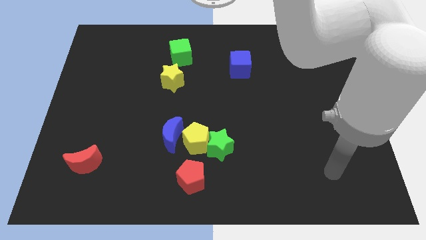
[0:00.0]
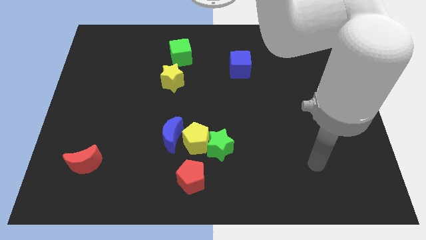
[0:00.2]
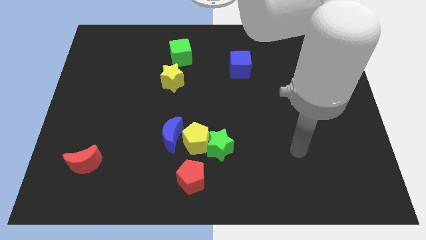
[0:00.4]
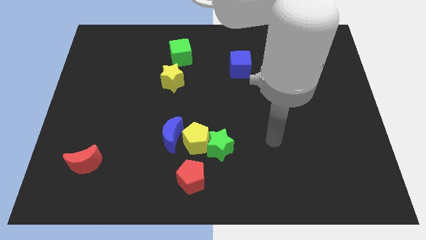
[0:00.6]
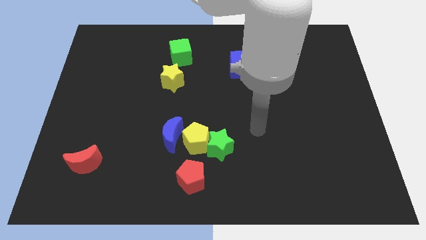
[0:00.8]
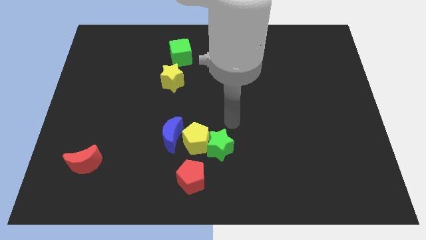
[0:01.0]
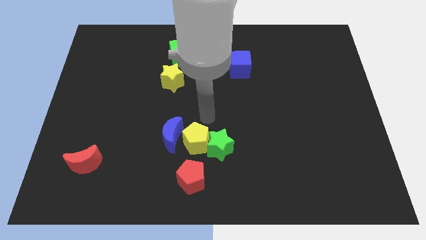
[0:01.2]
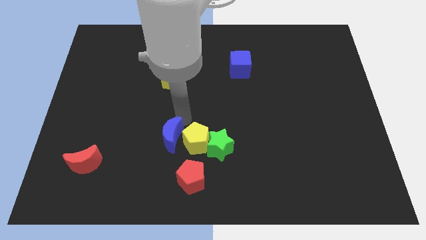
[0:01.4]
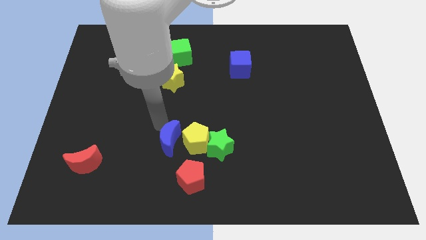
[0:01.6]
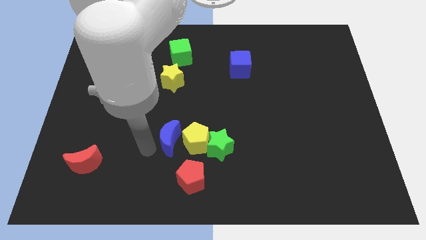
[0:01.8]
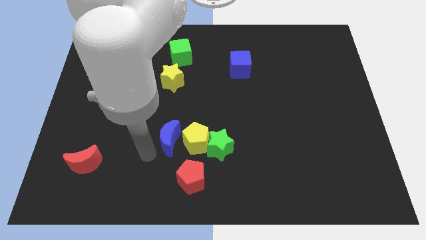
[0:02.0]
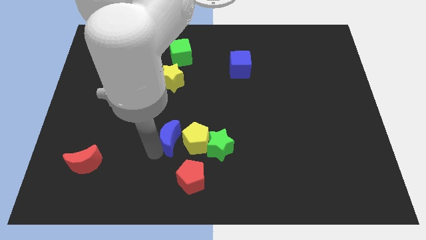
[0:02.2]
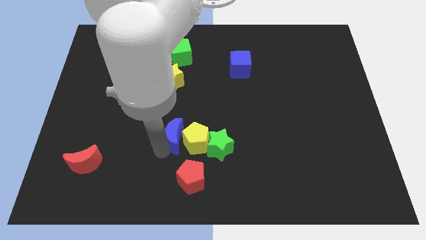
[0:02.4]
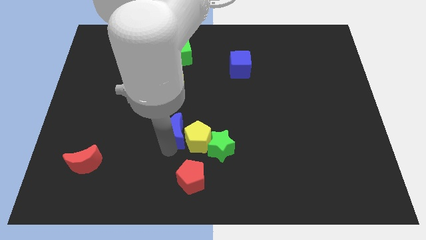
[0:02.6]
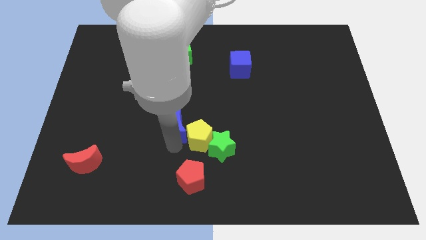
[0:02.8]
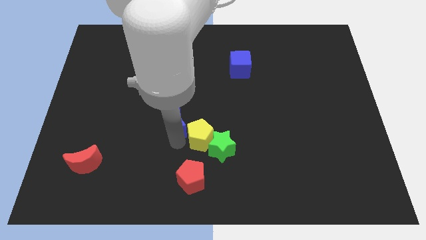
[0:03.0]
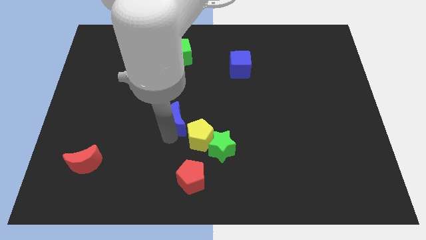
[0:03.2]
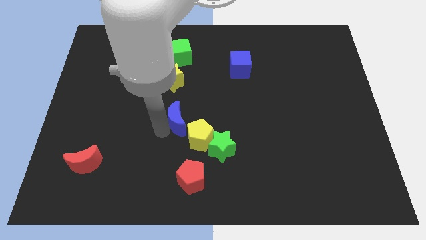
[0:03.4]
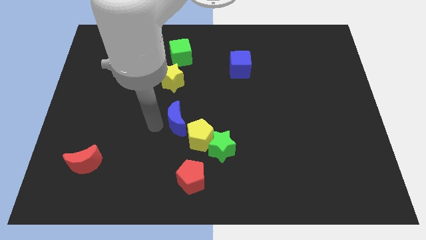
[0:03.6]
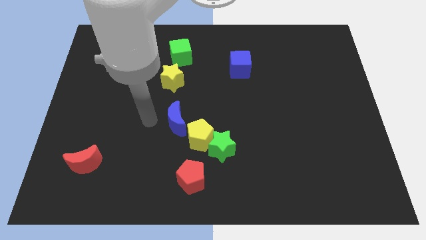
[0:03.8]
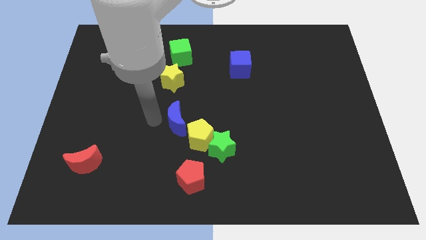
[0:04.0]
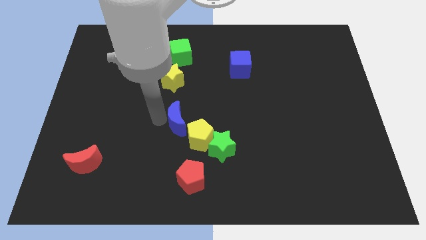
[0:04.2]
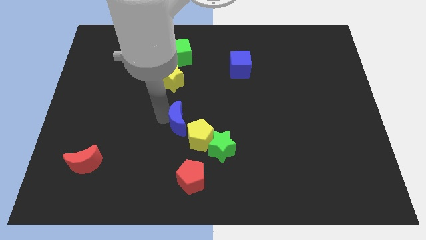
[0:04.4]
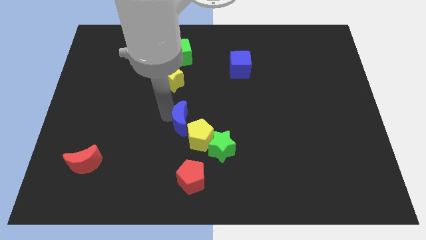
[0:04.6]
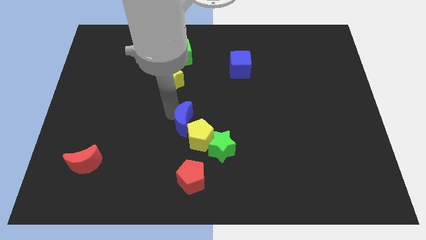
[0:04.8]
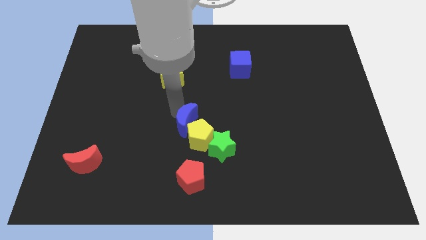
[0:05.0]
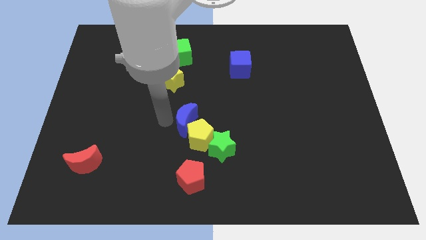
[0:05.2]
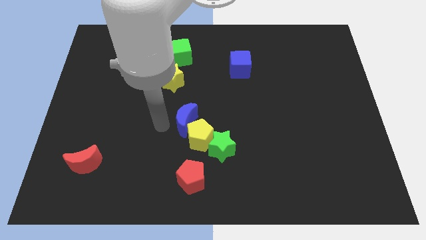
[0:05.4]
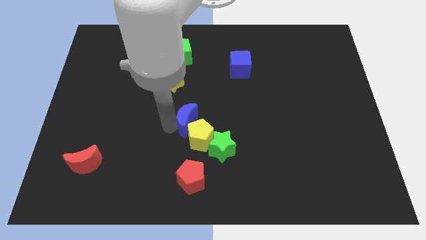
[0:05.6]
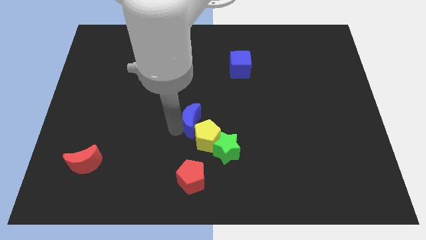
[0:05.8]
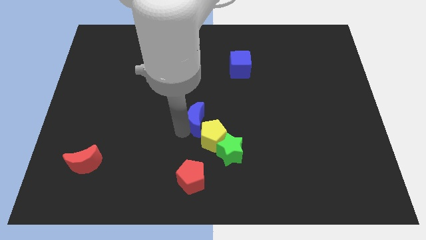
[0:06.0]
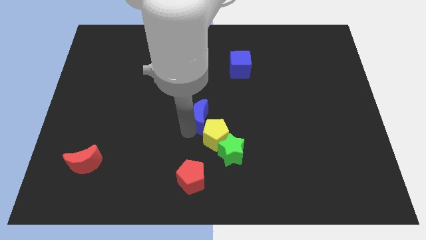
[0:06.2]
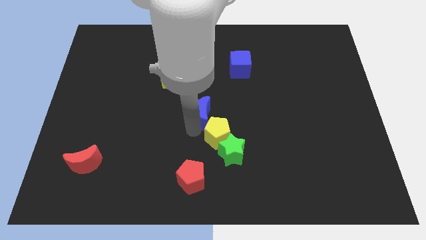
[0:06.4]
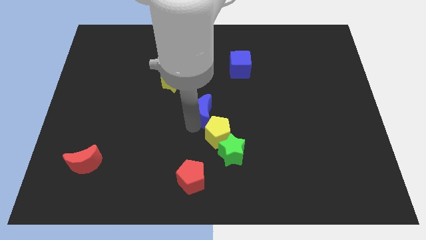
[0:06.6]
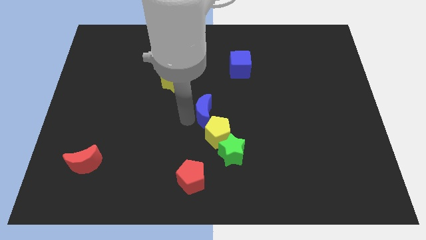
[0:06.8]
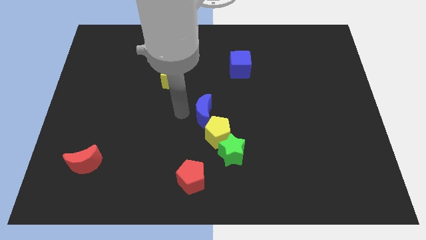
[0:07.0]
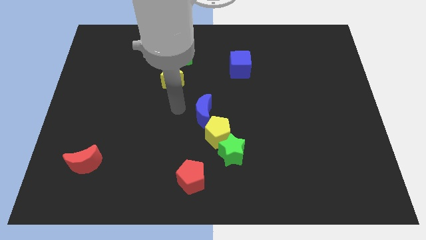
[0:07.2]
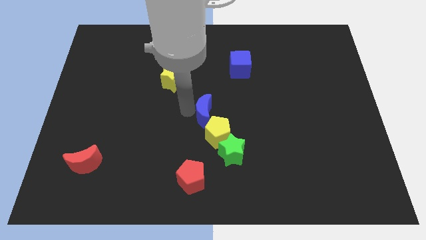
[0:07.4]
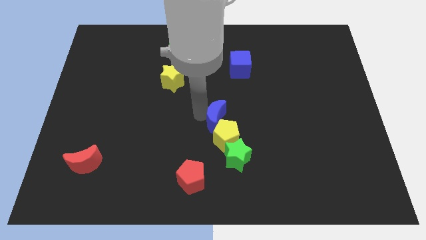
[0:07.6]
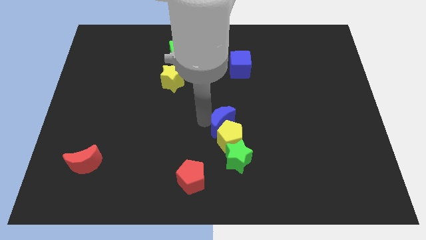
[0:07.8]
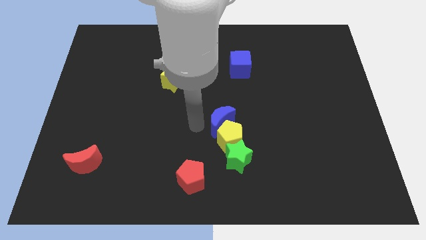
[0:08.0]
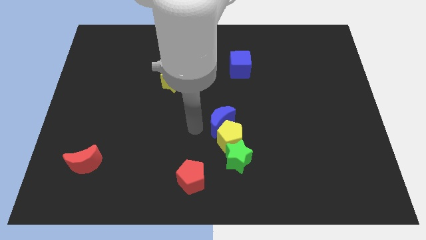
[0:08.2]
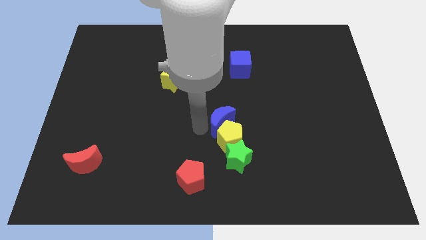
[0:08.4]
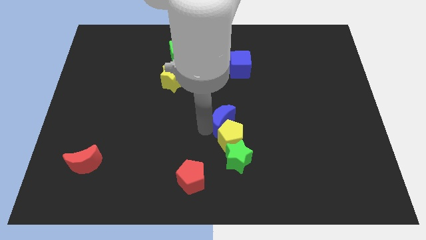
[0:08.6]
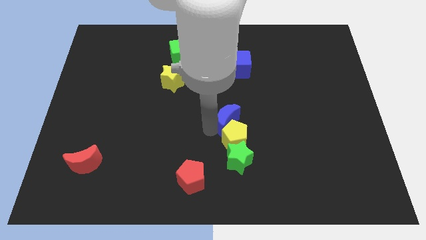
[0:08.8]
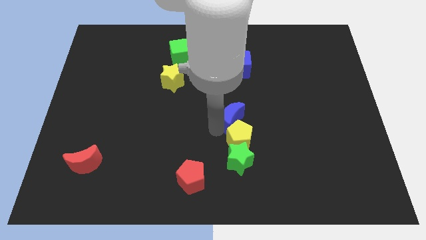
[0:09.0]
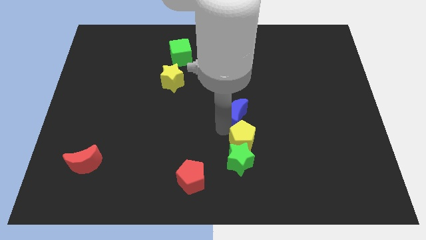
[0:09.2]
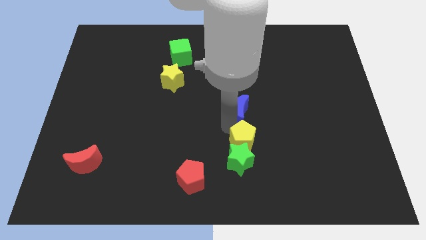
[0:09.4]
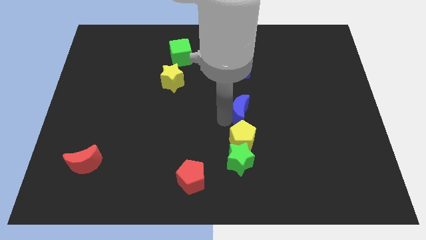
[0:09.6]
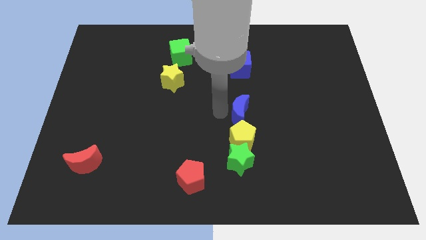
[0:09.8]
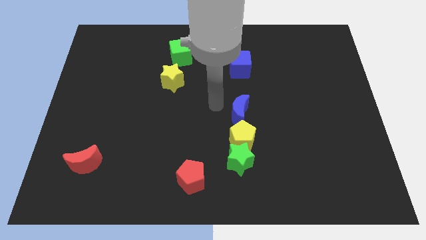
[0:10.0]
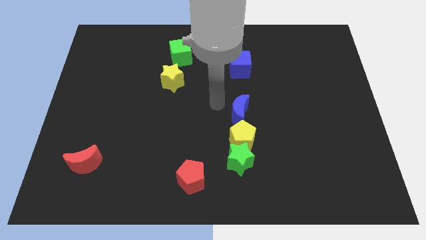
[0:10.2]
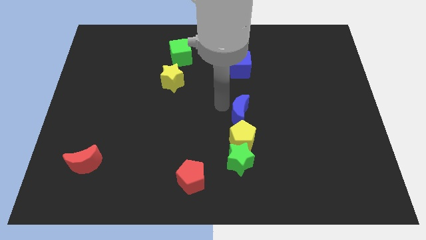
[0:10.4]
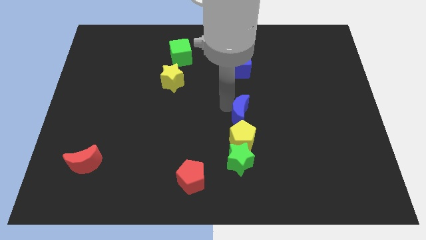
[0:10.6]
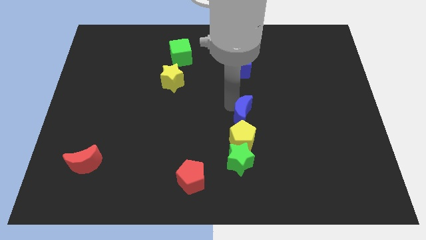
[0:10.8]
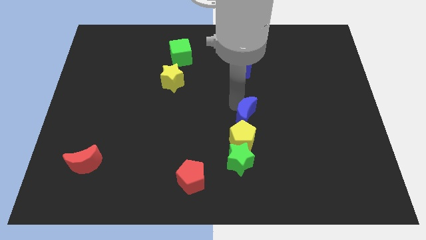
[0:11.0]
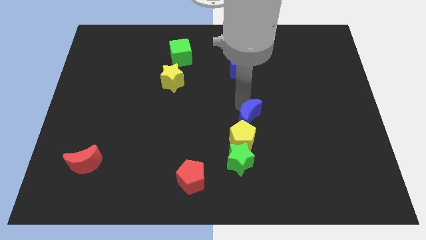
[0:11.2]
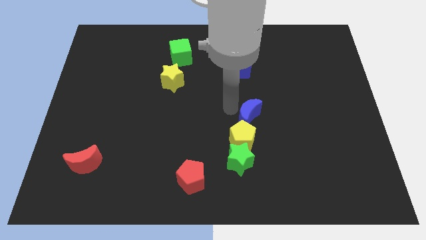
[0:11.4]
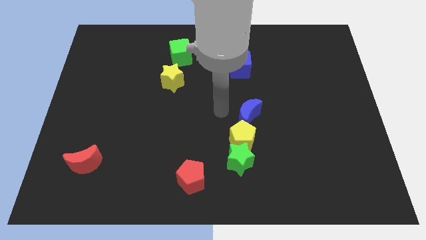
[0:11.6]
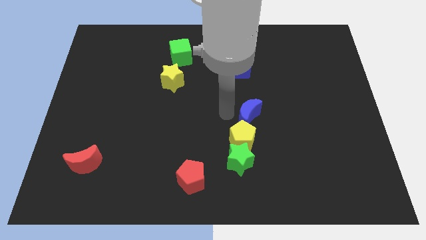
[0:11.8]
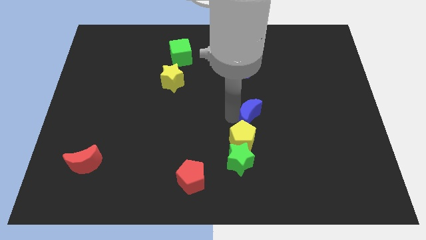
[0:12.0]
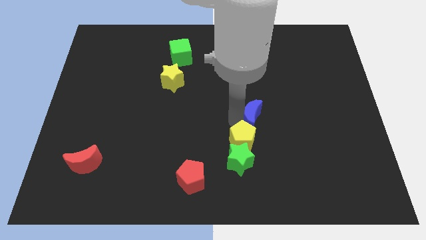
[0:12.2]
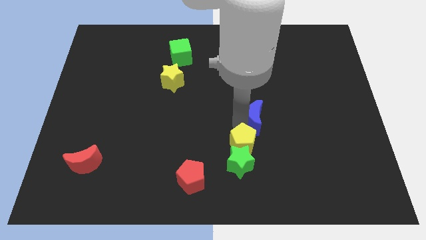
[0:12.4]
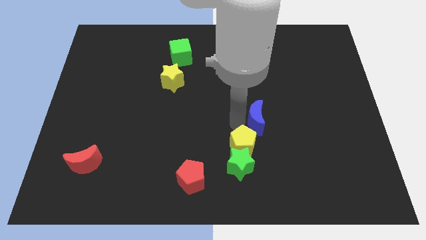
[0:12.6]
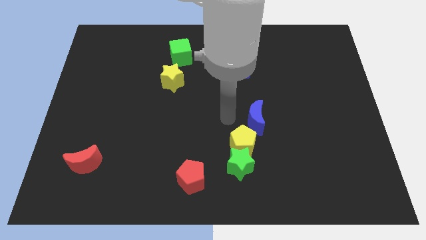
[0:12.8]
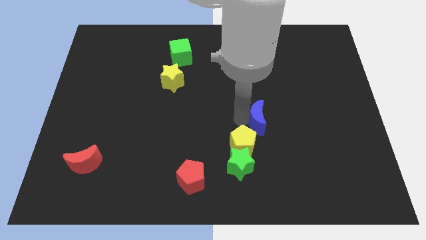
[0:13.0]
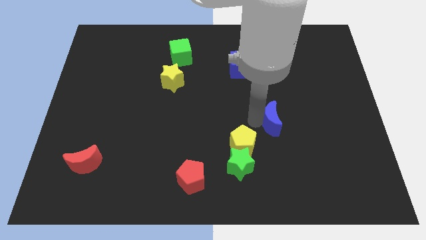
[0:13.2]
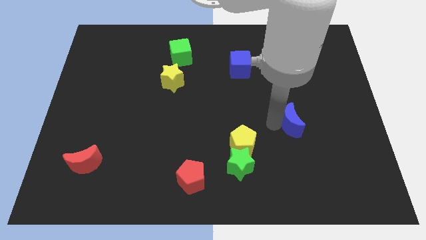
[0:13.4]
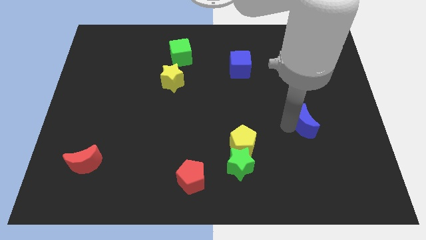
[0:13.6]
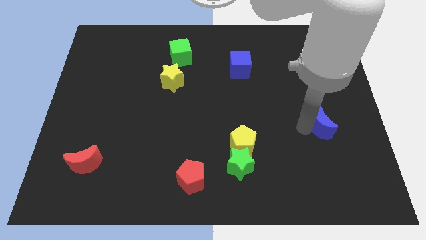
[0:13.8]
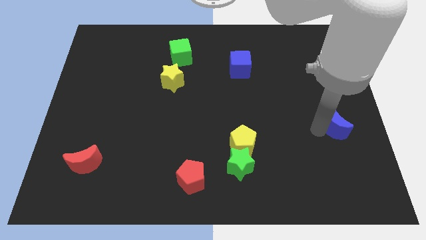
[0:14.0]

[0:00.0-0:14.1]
push the blue moon to the right side
